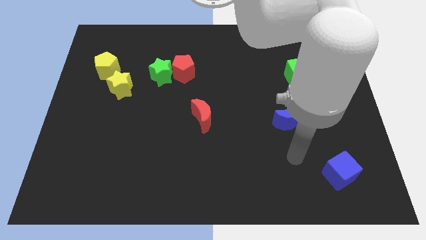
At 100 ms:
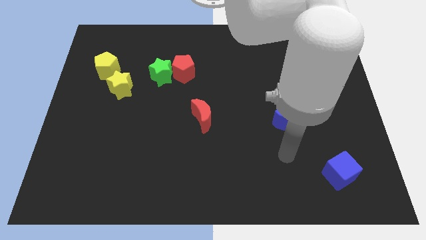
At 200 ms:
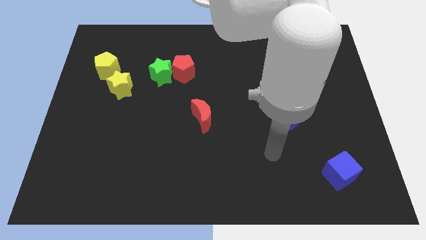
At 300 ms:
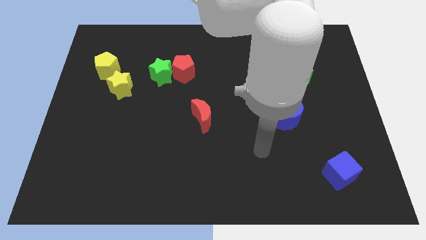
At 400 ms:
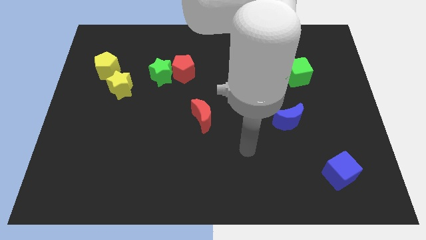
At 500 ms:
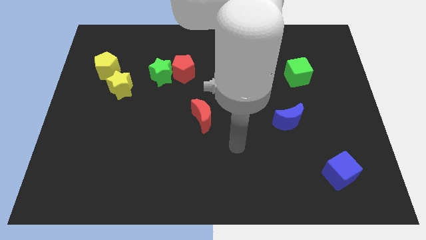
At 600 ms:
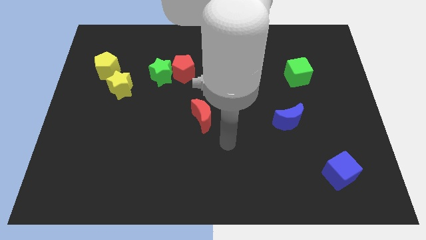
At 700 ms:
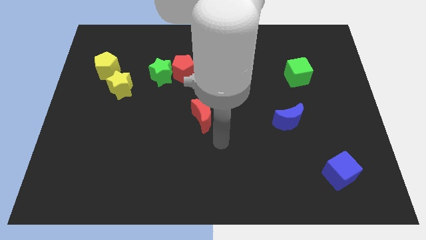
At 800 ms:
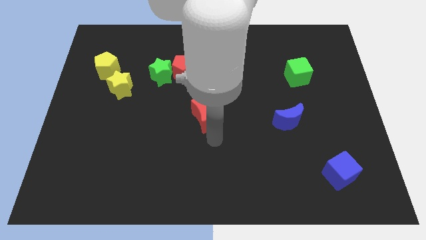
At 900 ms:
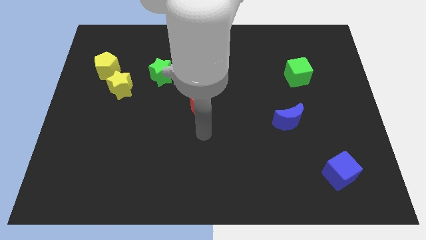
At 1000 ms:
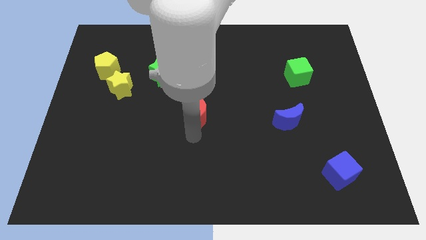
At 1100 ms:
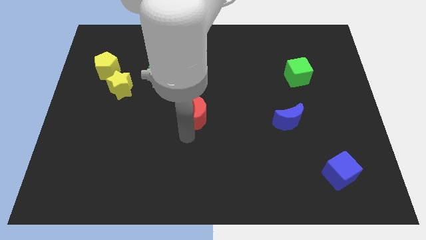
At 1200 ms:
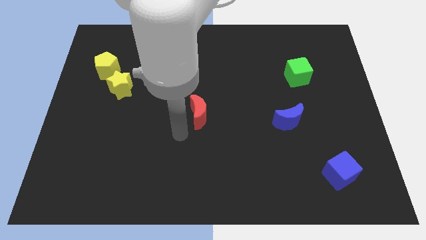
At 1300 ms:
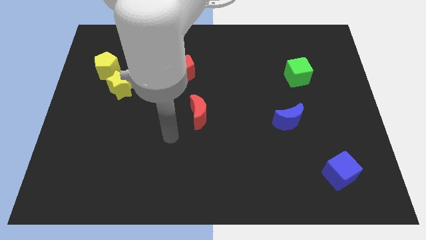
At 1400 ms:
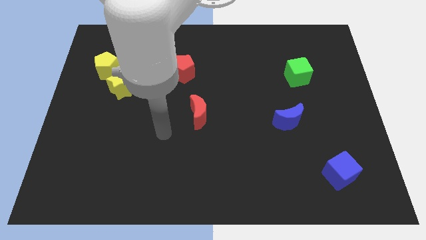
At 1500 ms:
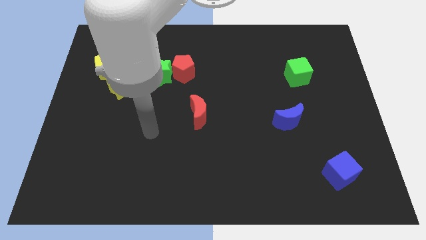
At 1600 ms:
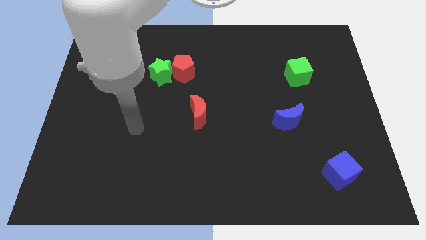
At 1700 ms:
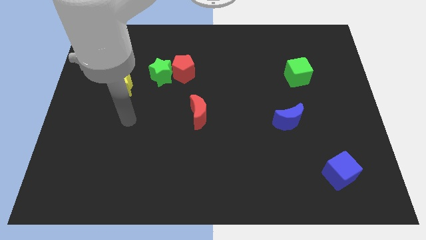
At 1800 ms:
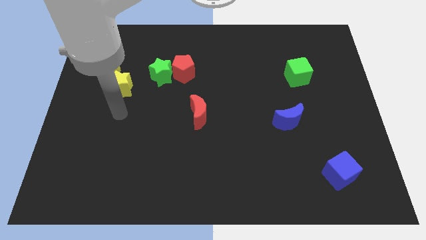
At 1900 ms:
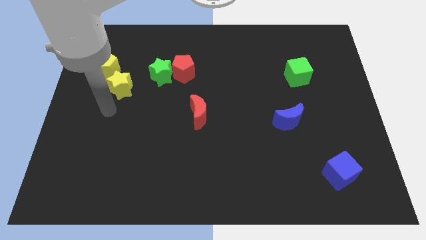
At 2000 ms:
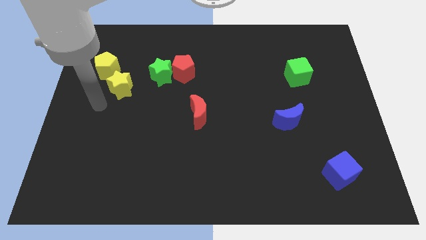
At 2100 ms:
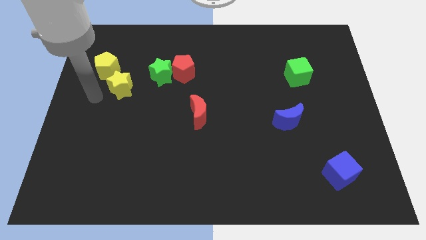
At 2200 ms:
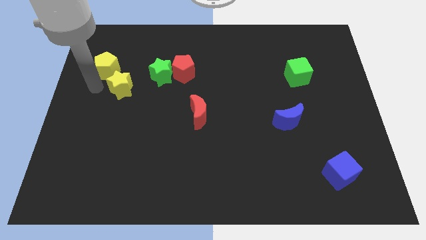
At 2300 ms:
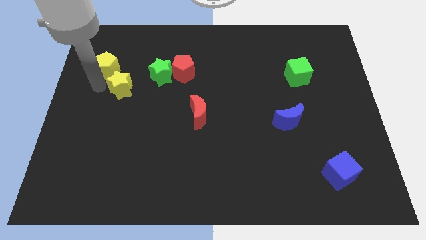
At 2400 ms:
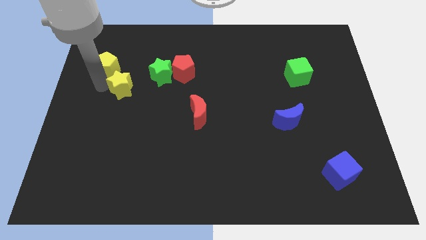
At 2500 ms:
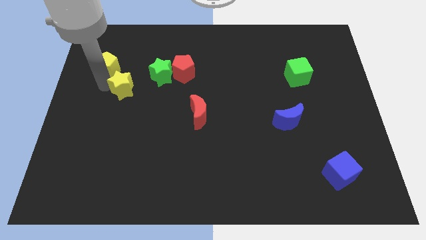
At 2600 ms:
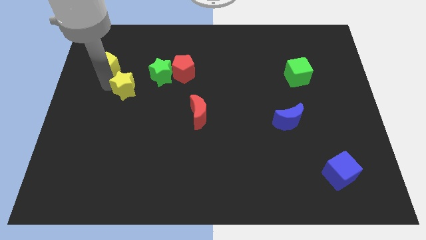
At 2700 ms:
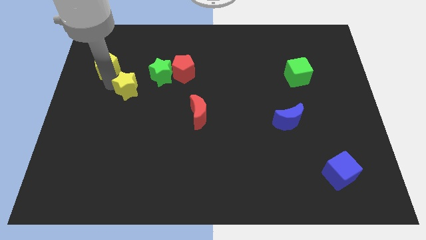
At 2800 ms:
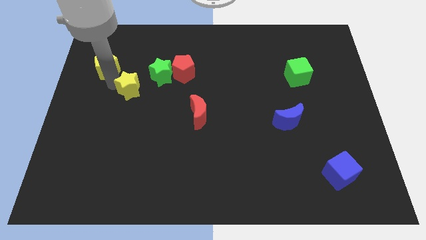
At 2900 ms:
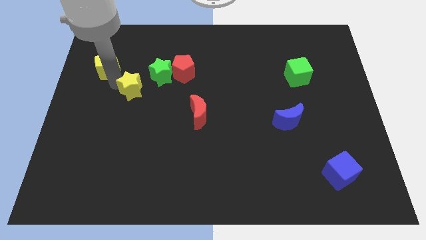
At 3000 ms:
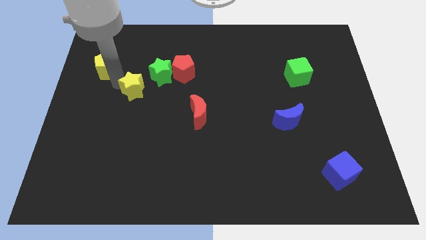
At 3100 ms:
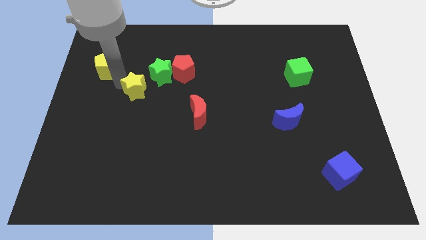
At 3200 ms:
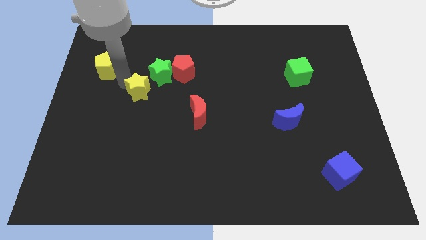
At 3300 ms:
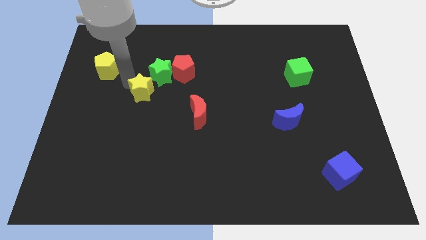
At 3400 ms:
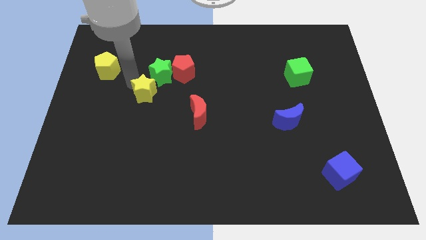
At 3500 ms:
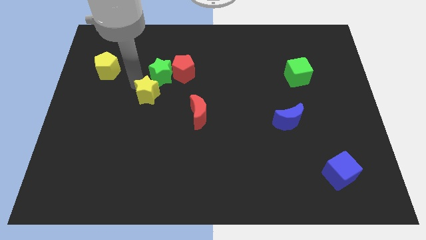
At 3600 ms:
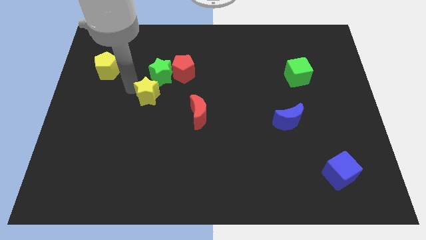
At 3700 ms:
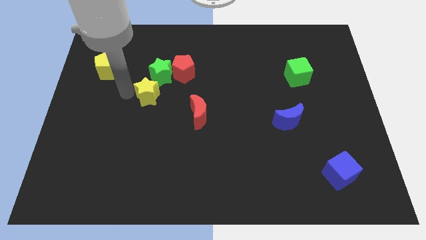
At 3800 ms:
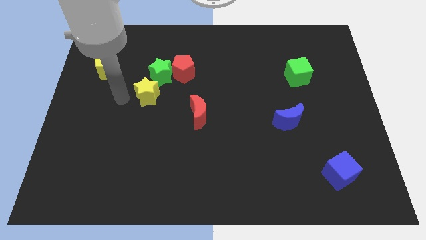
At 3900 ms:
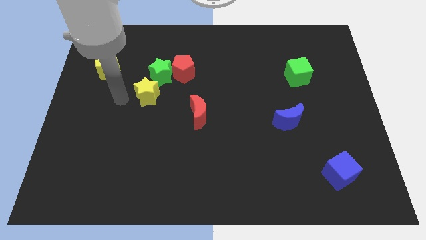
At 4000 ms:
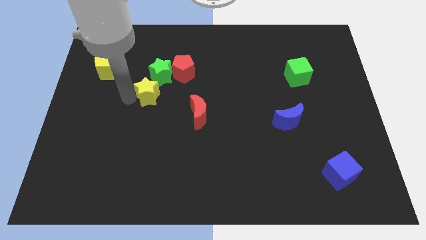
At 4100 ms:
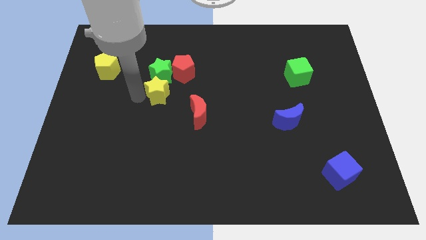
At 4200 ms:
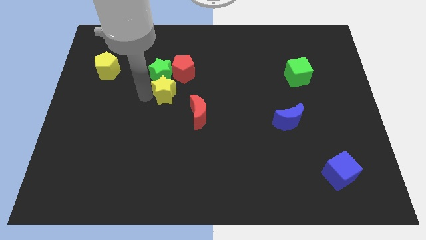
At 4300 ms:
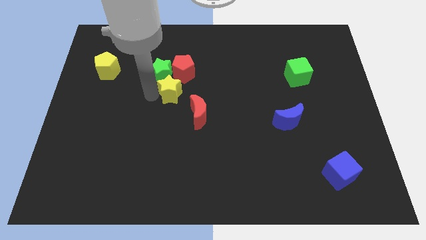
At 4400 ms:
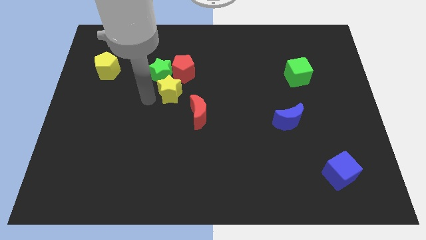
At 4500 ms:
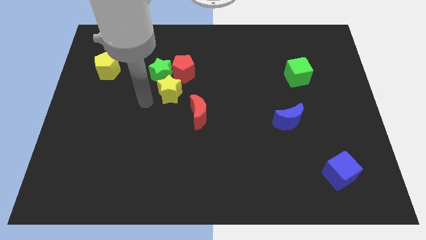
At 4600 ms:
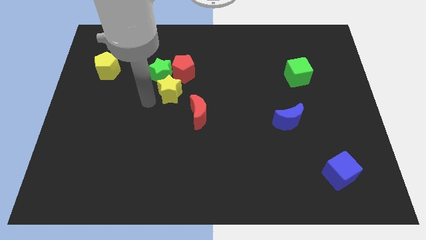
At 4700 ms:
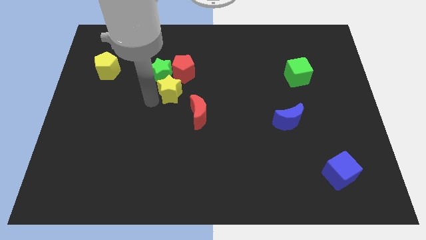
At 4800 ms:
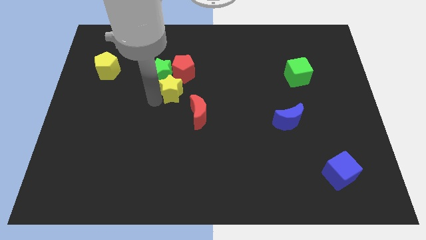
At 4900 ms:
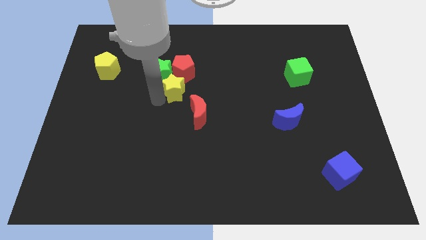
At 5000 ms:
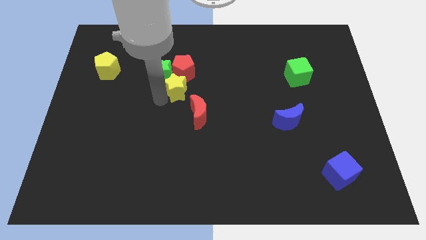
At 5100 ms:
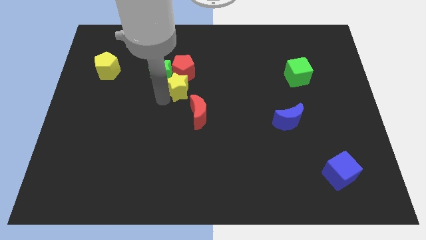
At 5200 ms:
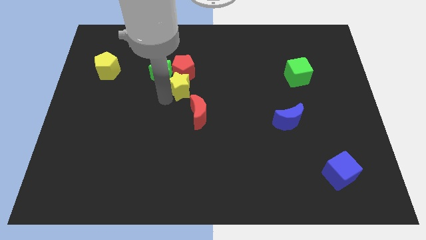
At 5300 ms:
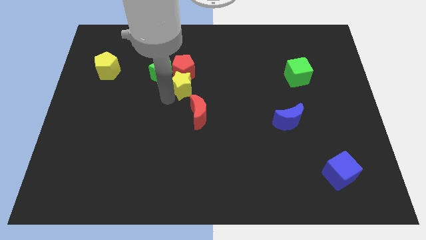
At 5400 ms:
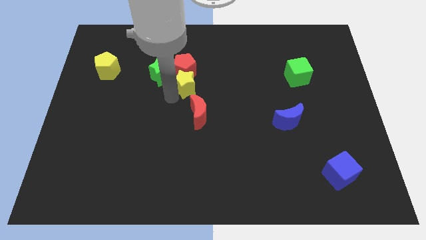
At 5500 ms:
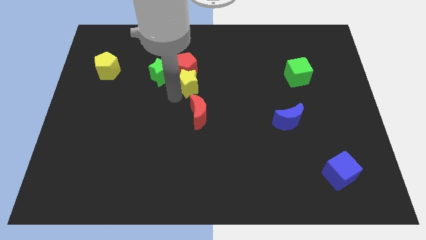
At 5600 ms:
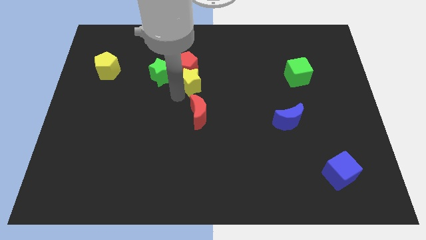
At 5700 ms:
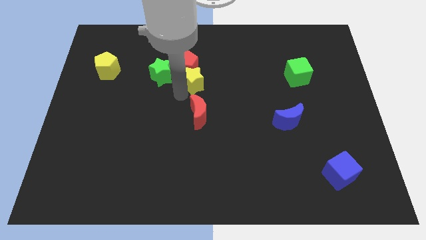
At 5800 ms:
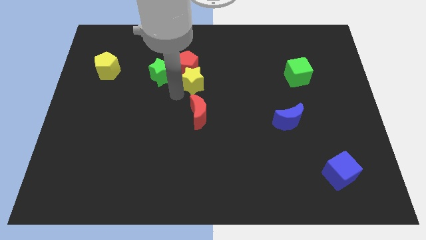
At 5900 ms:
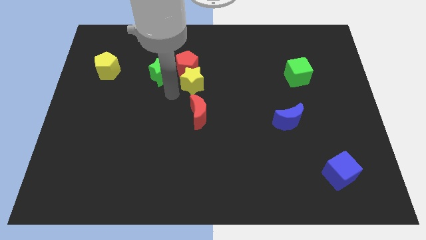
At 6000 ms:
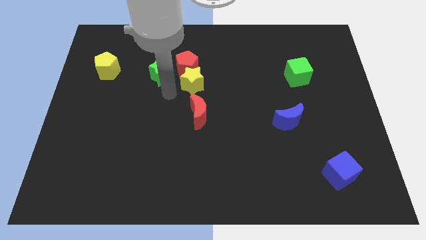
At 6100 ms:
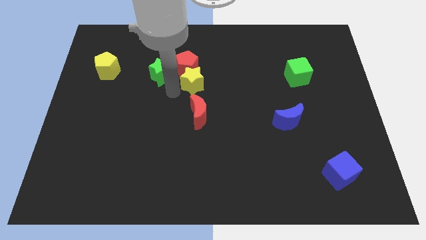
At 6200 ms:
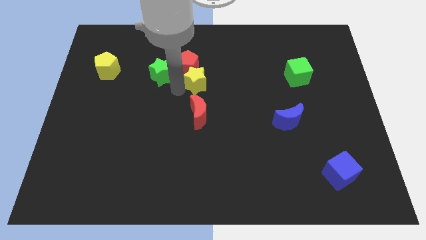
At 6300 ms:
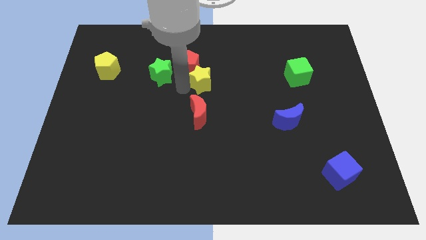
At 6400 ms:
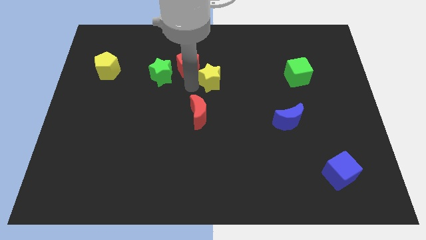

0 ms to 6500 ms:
push the yellow star to the right side of the red pentagon
